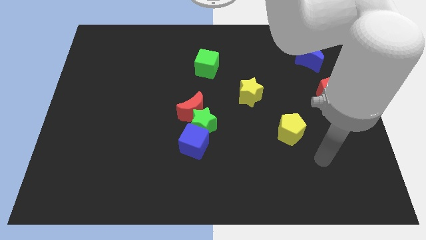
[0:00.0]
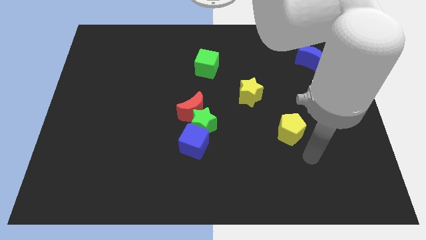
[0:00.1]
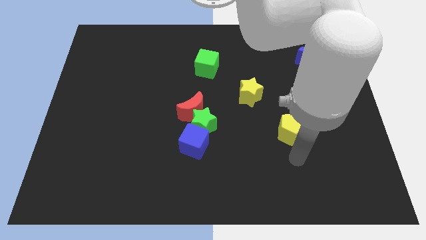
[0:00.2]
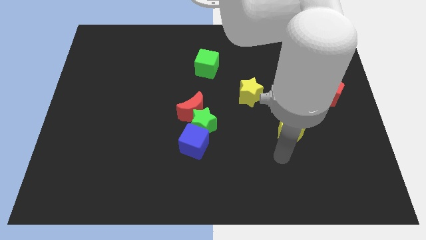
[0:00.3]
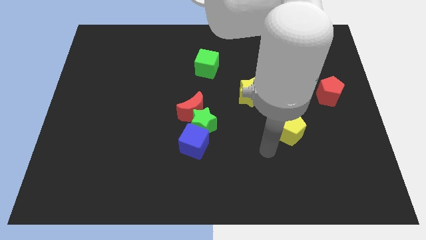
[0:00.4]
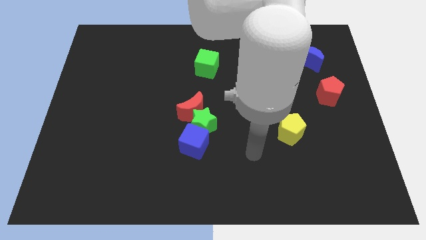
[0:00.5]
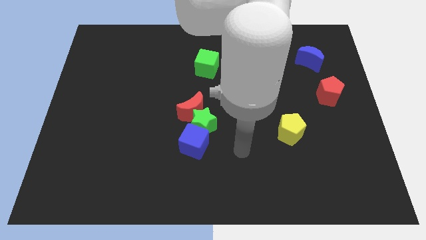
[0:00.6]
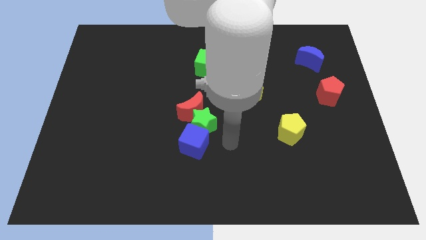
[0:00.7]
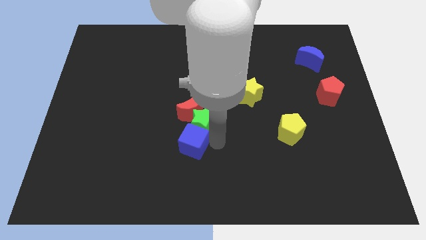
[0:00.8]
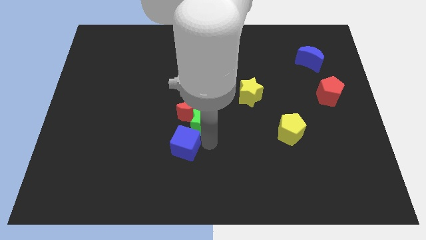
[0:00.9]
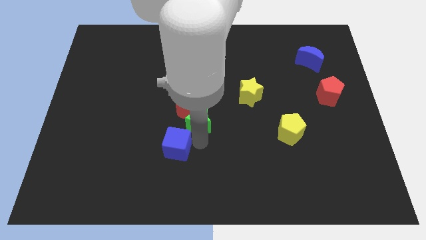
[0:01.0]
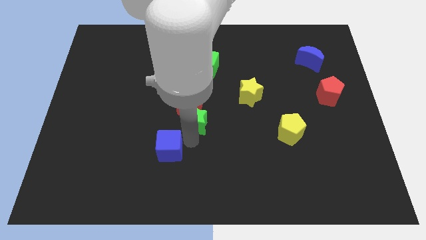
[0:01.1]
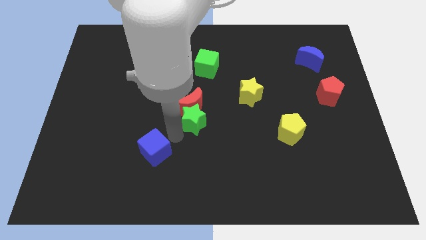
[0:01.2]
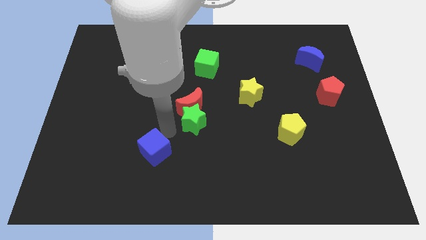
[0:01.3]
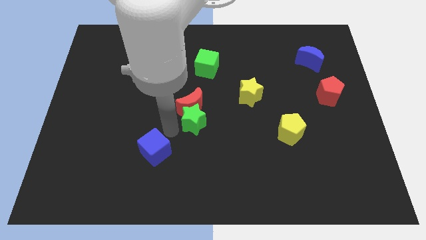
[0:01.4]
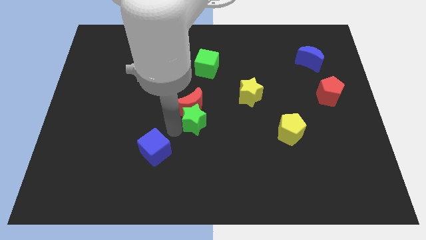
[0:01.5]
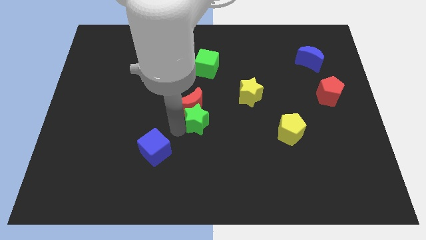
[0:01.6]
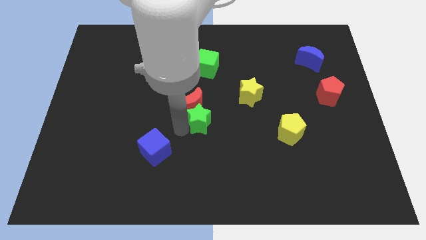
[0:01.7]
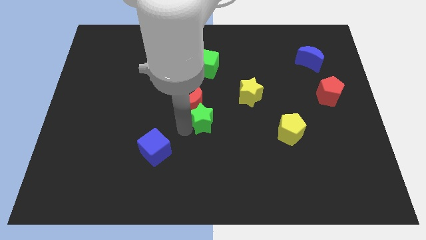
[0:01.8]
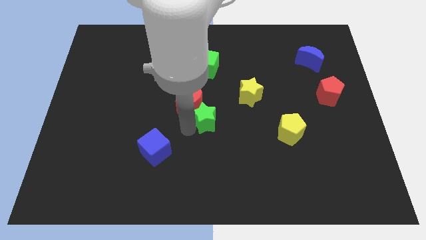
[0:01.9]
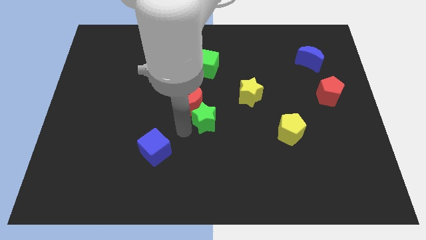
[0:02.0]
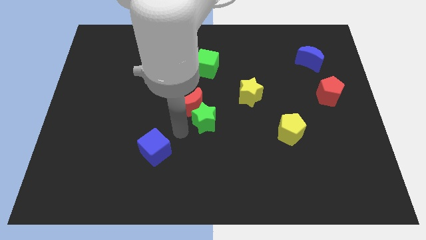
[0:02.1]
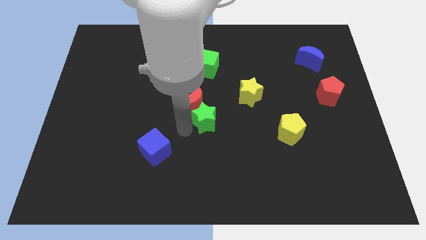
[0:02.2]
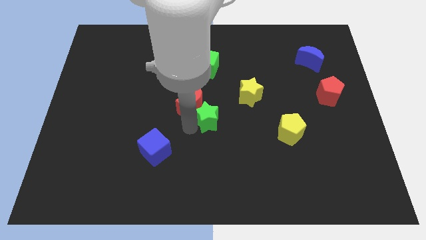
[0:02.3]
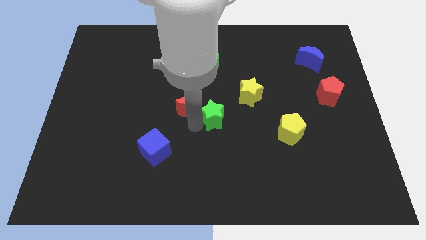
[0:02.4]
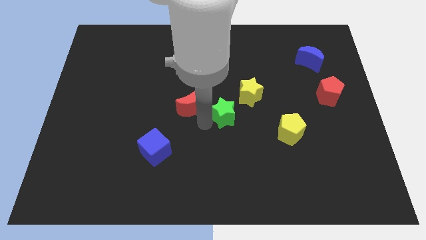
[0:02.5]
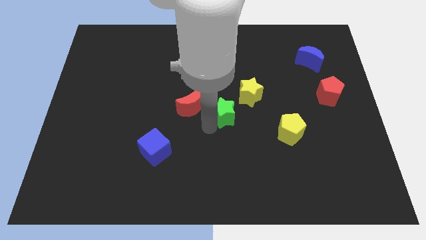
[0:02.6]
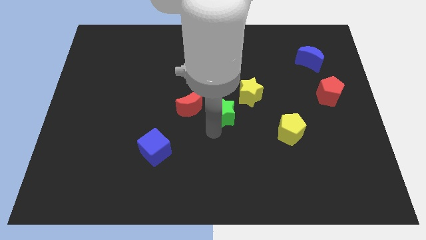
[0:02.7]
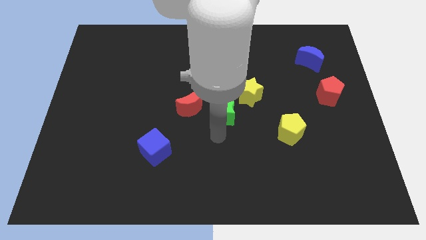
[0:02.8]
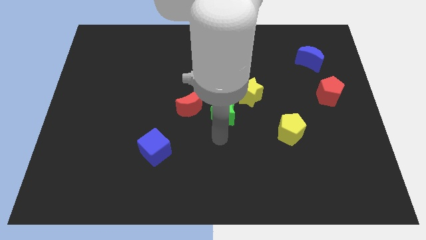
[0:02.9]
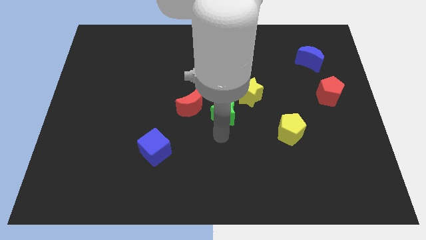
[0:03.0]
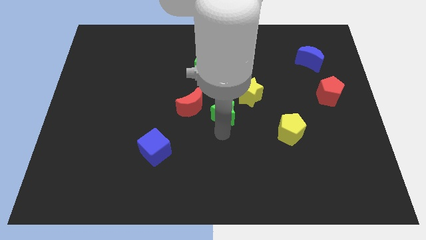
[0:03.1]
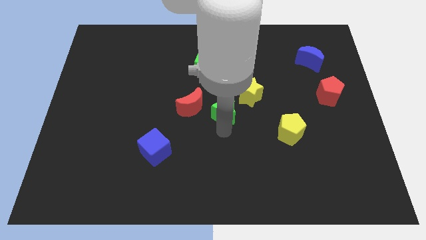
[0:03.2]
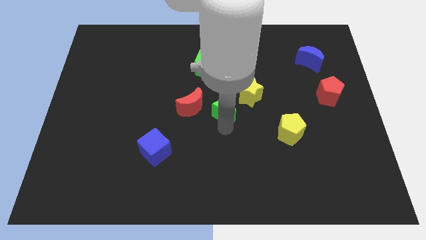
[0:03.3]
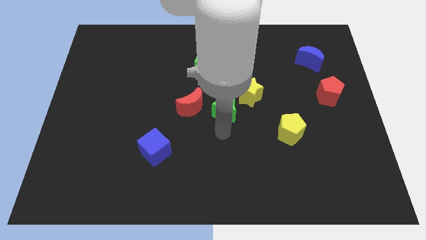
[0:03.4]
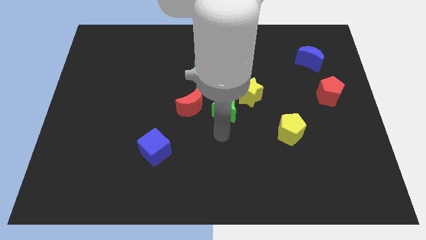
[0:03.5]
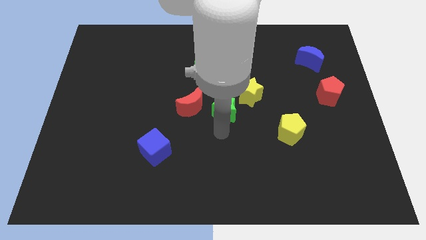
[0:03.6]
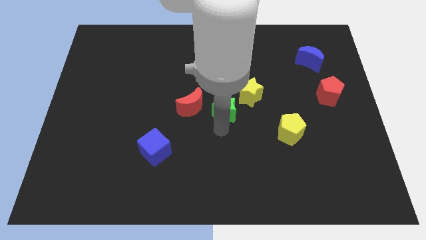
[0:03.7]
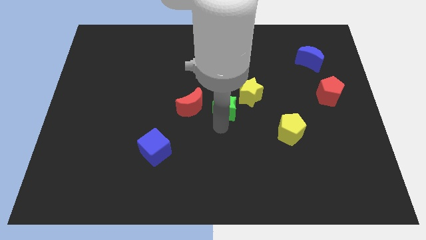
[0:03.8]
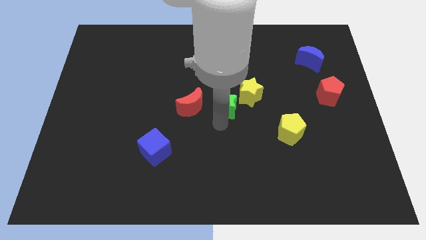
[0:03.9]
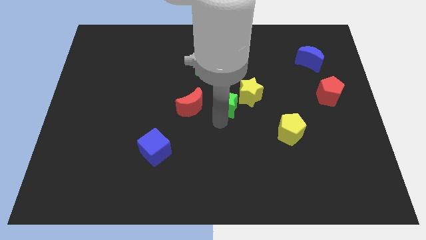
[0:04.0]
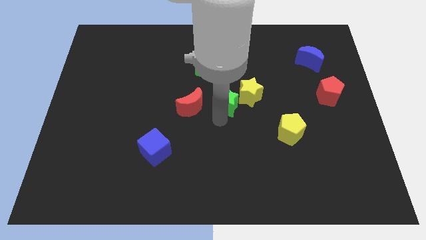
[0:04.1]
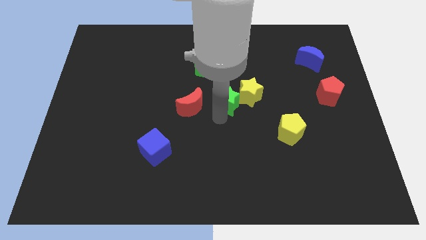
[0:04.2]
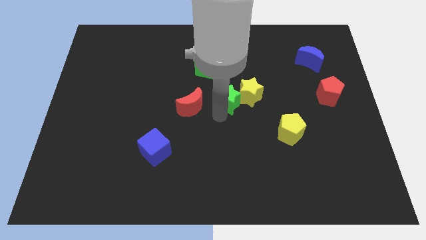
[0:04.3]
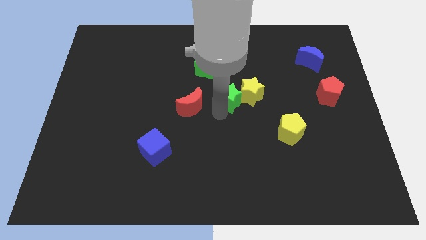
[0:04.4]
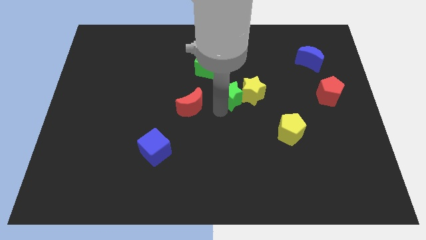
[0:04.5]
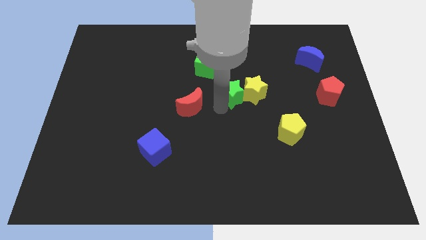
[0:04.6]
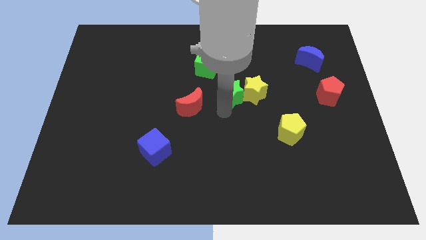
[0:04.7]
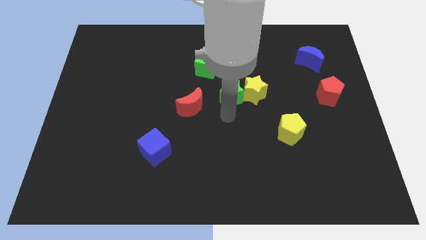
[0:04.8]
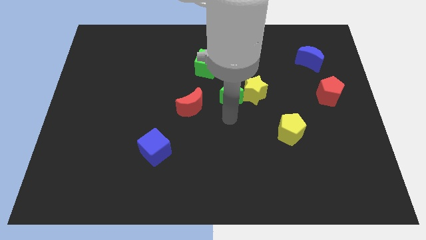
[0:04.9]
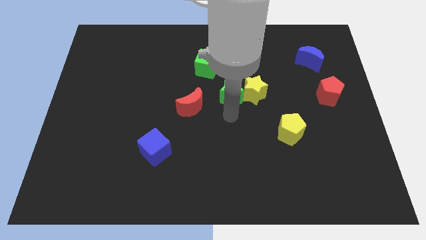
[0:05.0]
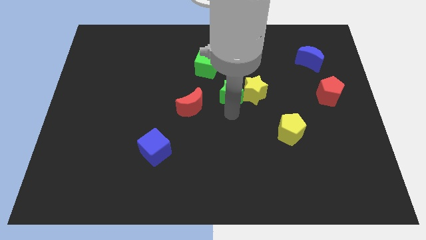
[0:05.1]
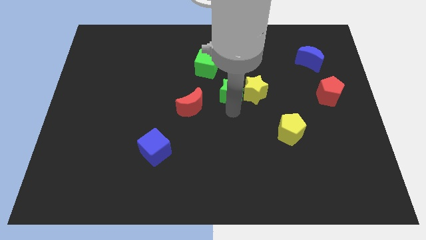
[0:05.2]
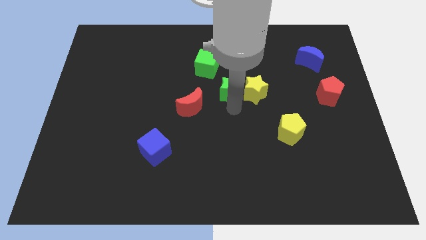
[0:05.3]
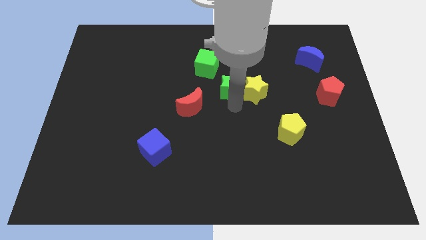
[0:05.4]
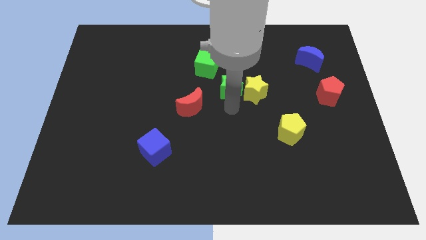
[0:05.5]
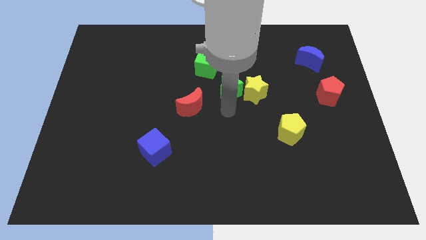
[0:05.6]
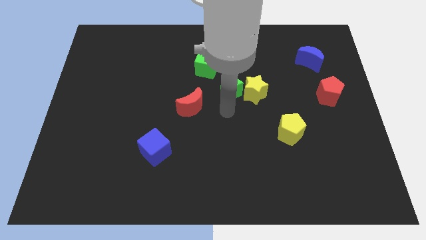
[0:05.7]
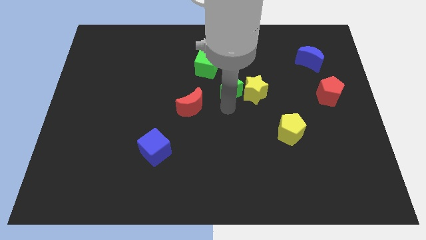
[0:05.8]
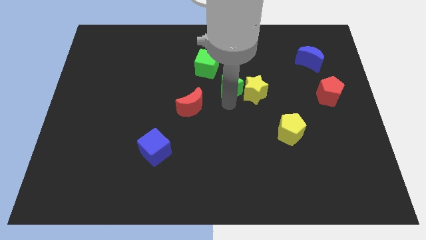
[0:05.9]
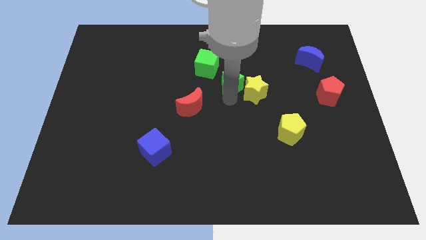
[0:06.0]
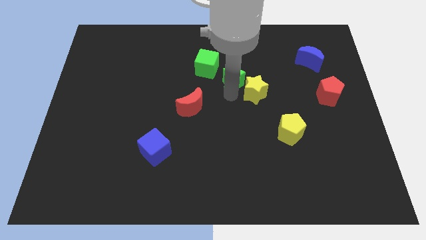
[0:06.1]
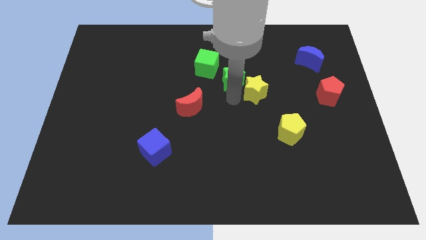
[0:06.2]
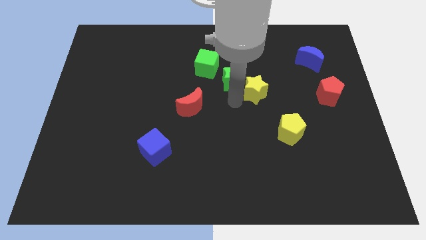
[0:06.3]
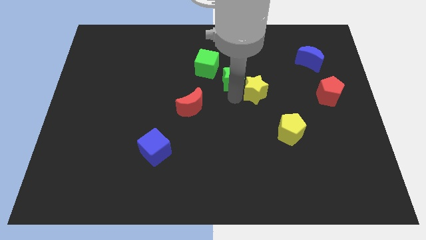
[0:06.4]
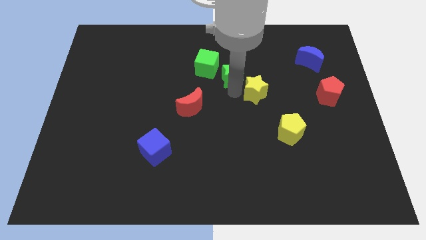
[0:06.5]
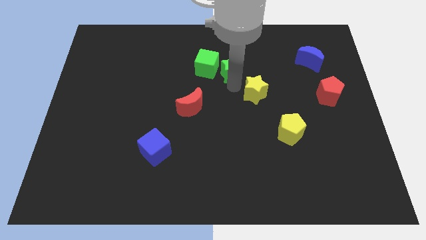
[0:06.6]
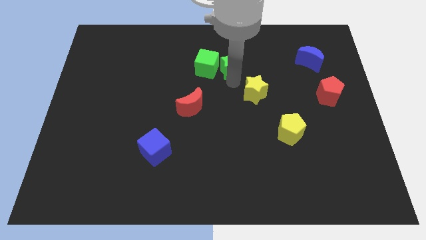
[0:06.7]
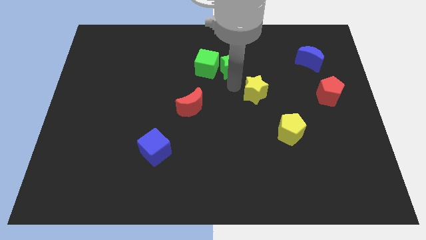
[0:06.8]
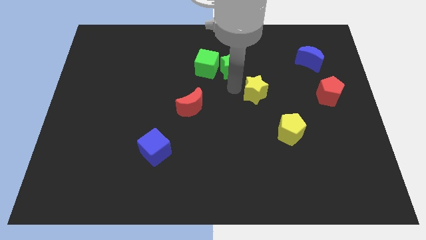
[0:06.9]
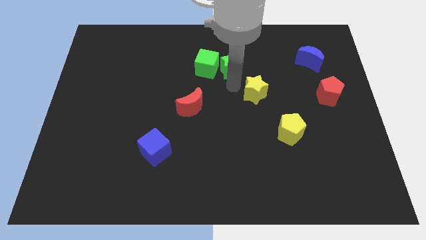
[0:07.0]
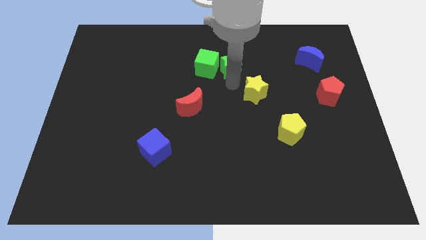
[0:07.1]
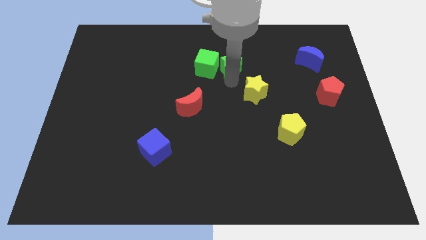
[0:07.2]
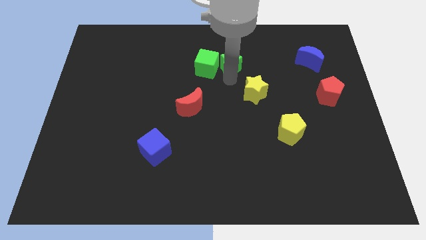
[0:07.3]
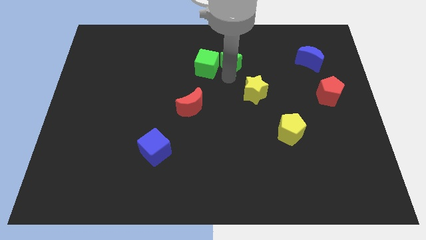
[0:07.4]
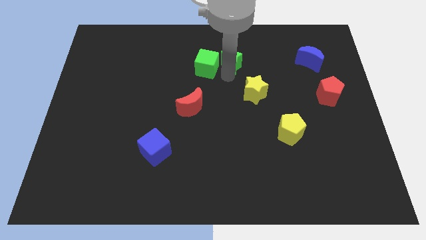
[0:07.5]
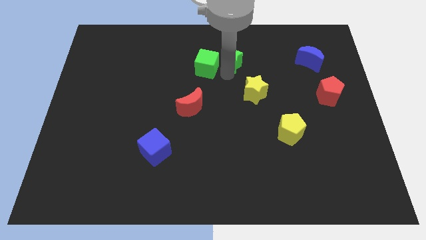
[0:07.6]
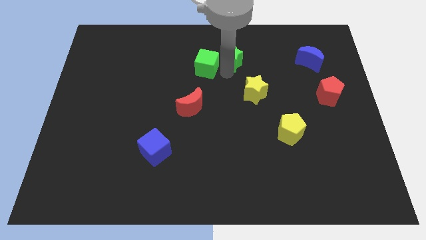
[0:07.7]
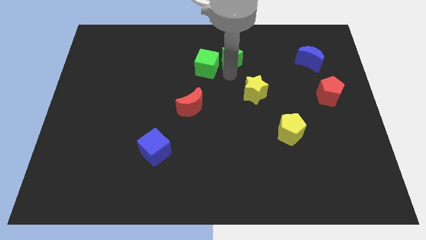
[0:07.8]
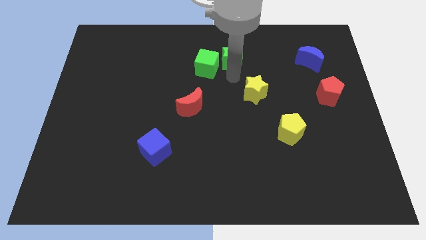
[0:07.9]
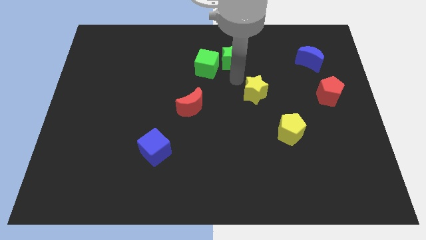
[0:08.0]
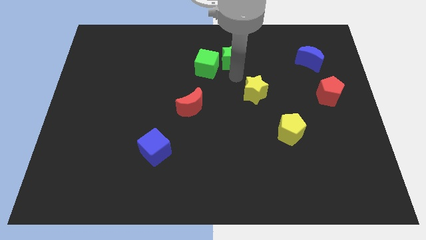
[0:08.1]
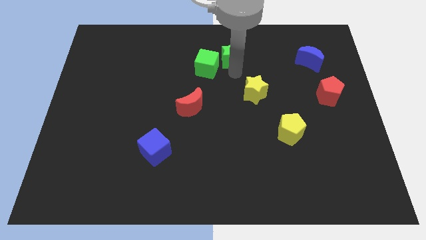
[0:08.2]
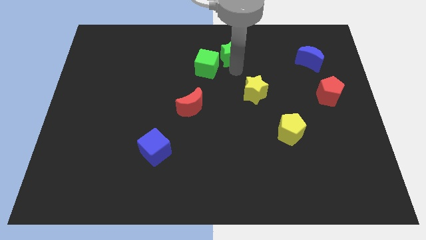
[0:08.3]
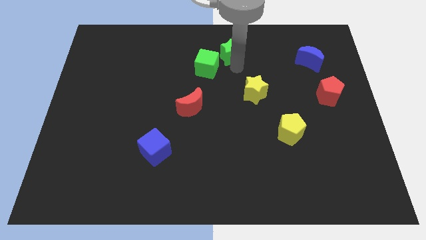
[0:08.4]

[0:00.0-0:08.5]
put the green star to the top side
